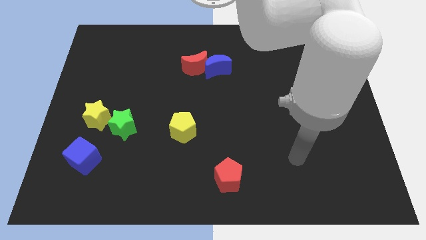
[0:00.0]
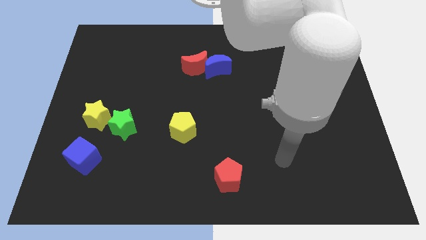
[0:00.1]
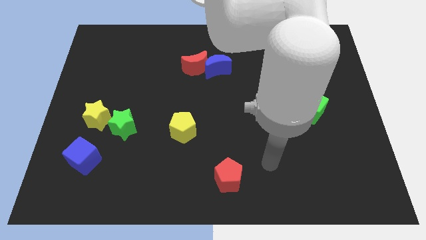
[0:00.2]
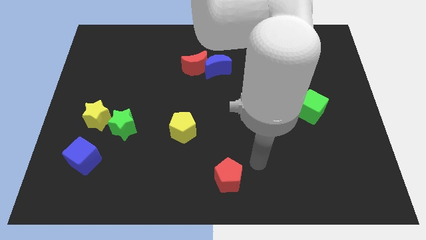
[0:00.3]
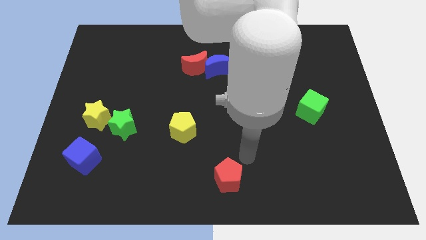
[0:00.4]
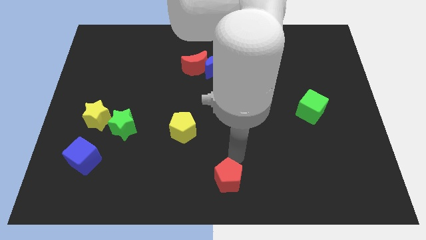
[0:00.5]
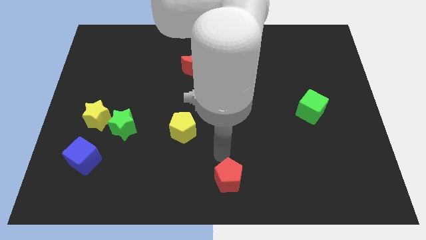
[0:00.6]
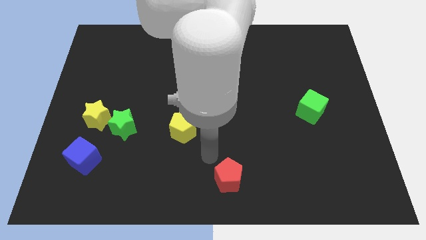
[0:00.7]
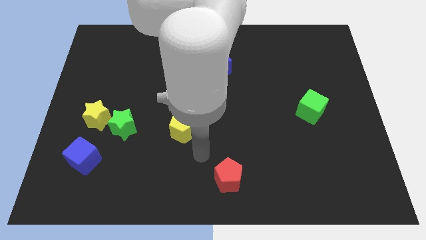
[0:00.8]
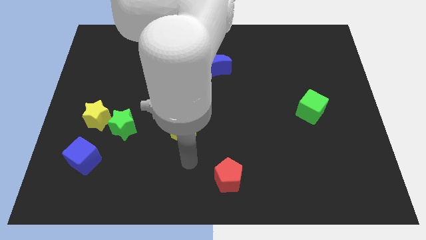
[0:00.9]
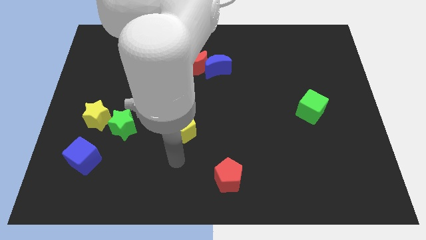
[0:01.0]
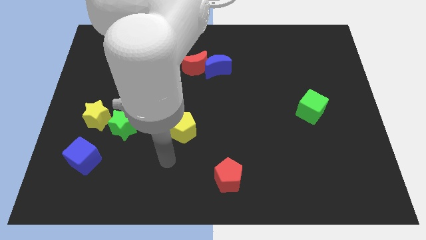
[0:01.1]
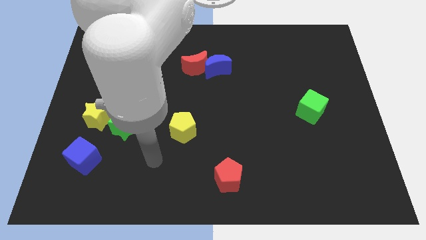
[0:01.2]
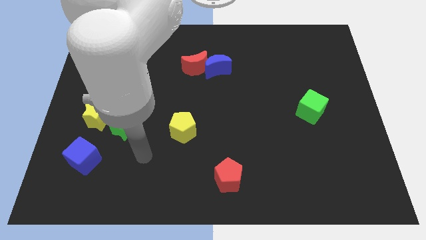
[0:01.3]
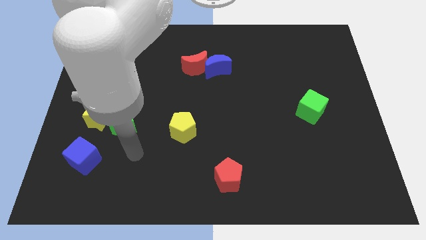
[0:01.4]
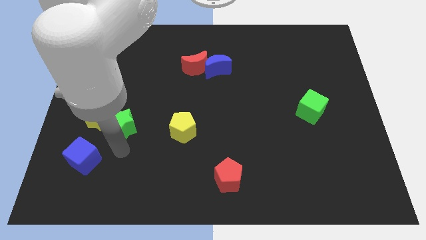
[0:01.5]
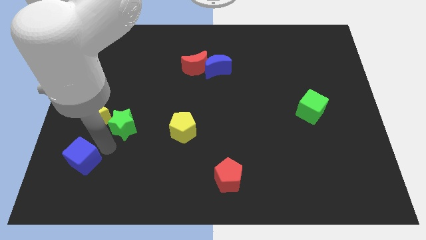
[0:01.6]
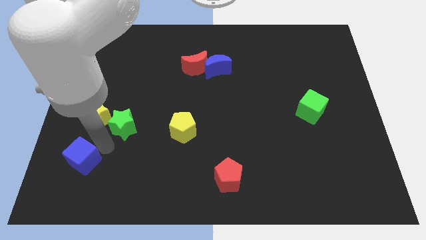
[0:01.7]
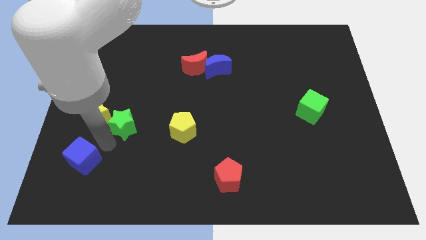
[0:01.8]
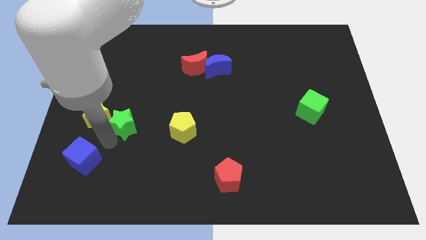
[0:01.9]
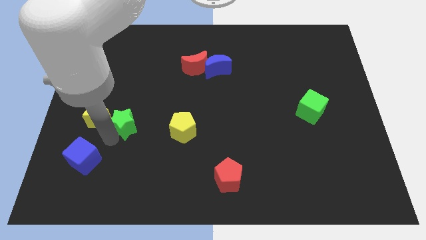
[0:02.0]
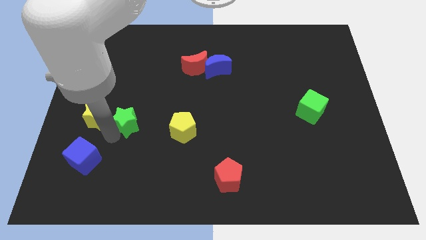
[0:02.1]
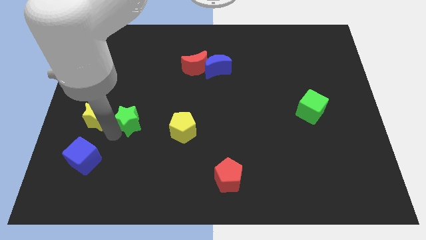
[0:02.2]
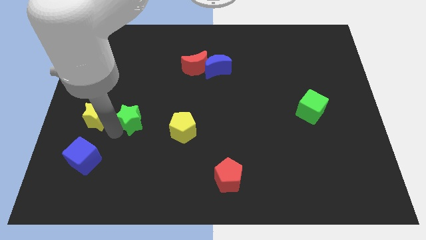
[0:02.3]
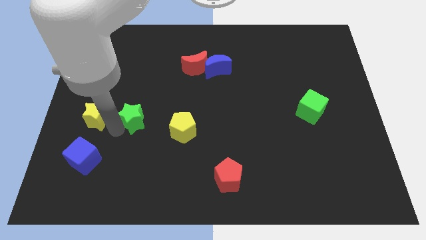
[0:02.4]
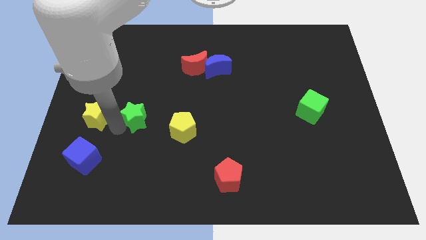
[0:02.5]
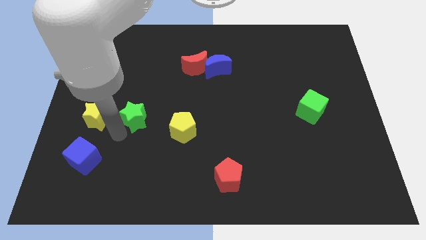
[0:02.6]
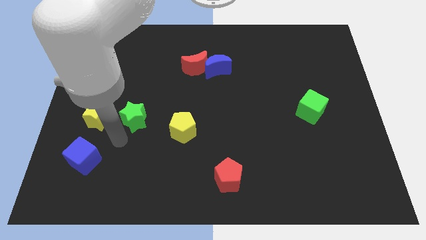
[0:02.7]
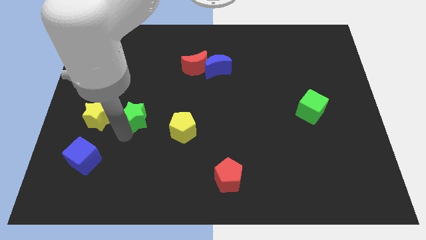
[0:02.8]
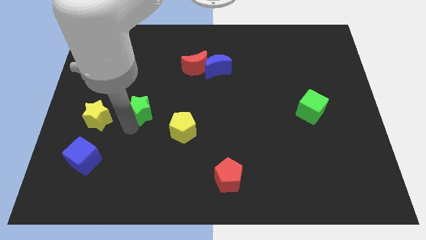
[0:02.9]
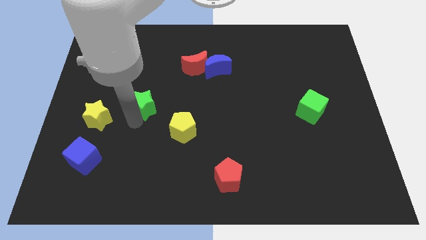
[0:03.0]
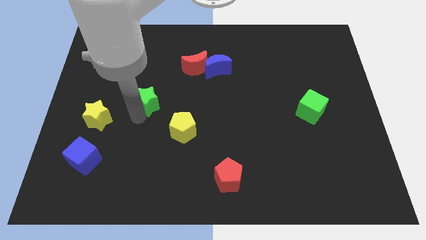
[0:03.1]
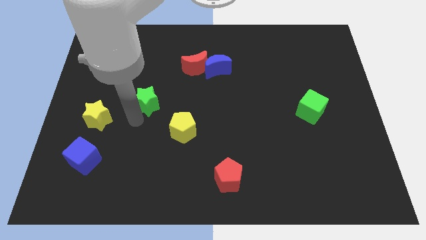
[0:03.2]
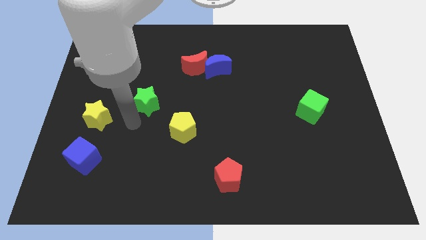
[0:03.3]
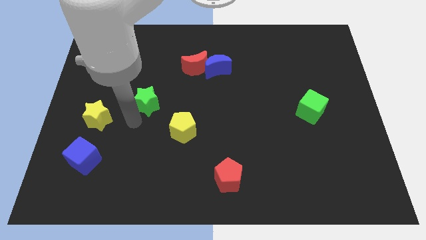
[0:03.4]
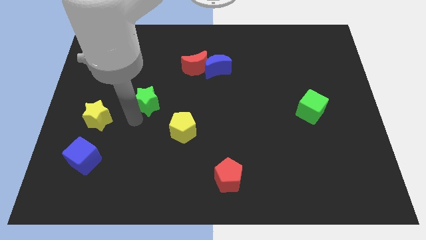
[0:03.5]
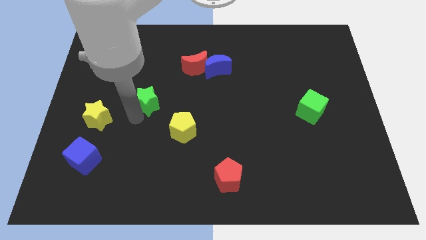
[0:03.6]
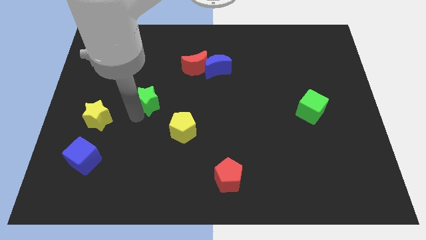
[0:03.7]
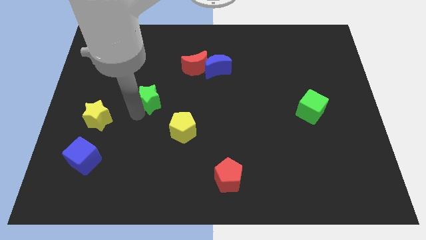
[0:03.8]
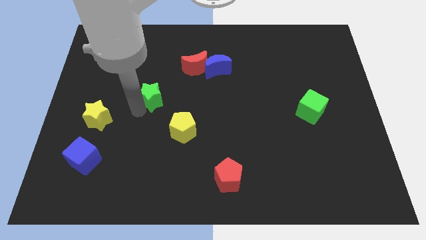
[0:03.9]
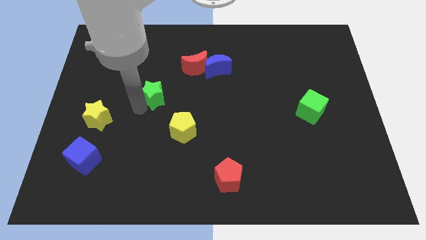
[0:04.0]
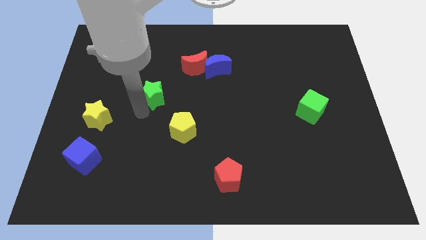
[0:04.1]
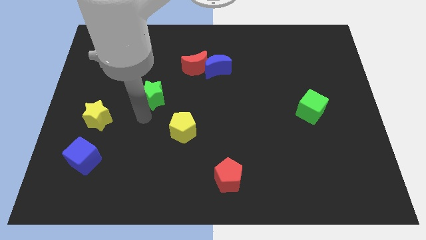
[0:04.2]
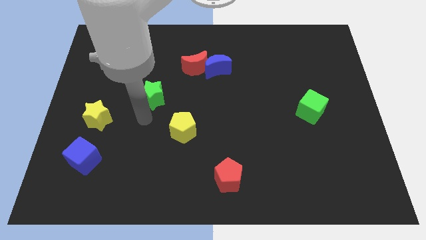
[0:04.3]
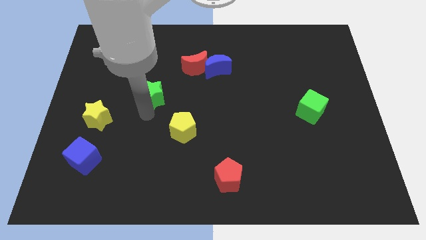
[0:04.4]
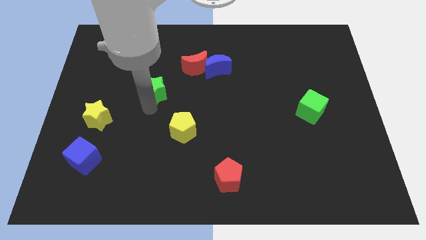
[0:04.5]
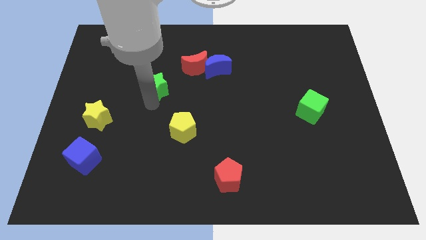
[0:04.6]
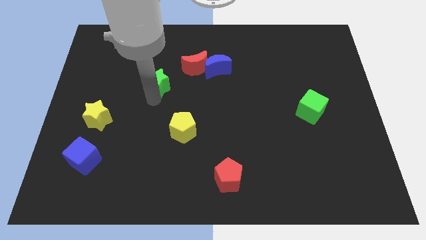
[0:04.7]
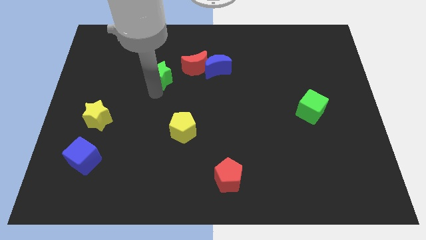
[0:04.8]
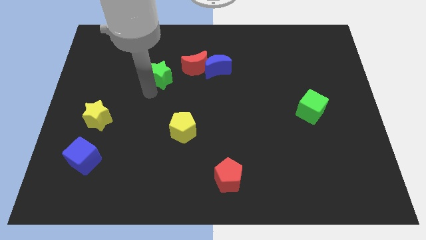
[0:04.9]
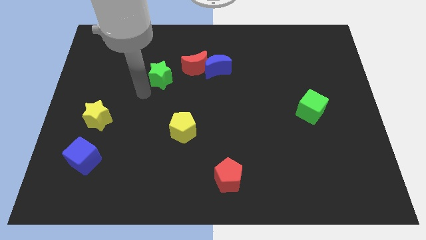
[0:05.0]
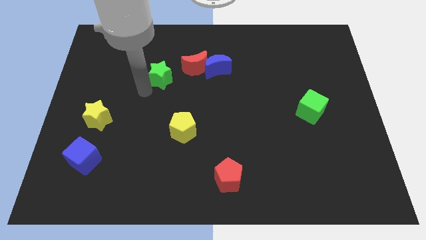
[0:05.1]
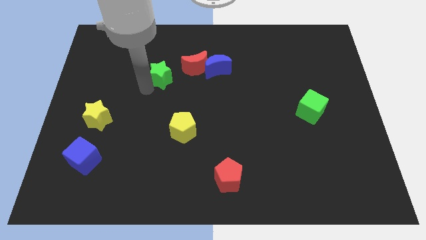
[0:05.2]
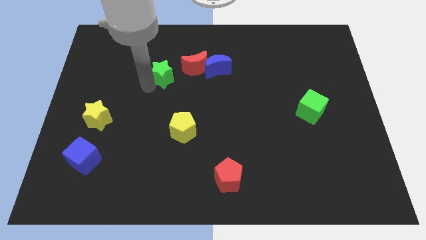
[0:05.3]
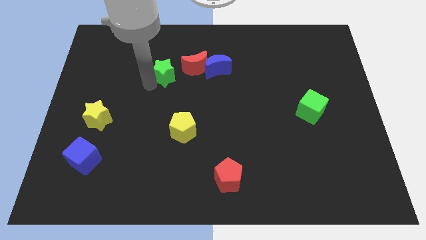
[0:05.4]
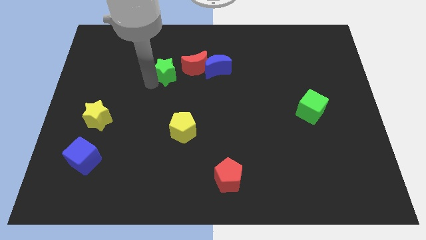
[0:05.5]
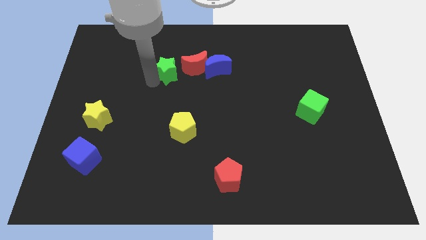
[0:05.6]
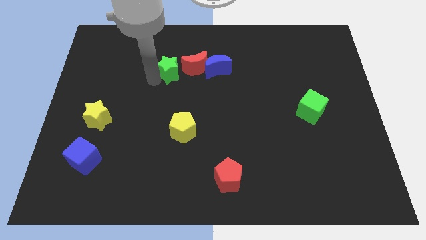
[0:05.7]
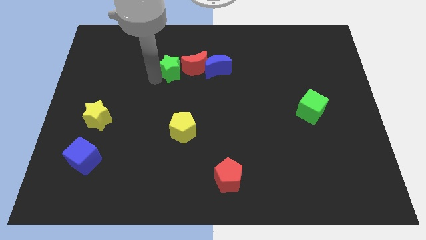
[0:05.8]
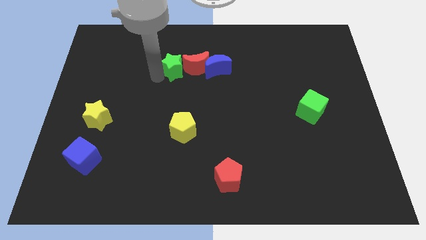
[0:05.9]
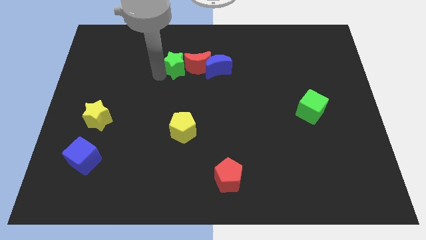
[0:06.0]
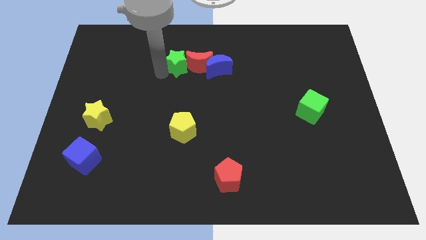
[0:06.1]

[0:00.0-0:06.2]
push the green star up and to the right

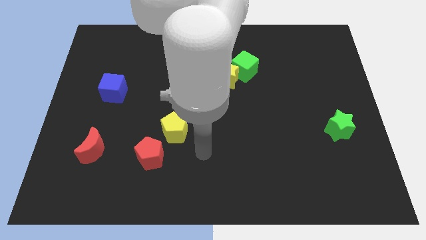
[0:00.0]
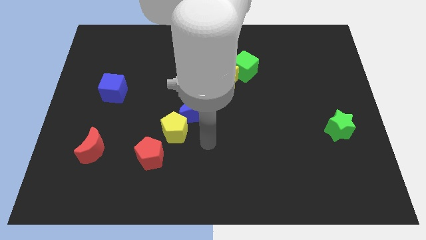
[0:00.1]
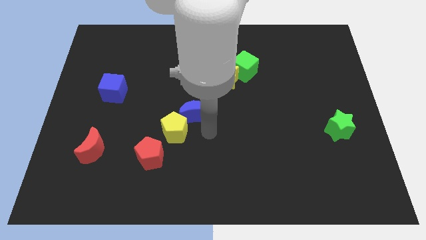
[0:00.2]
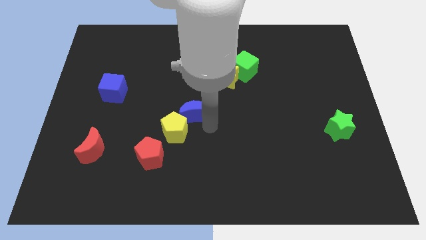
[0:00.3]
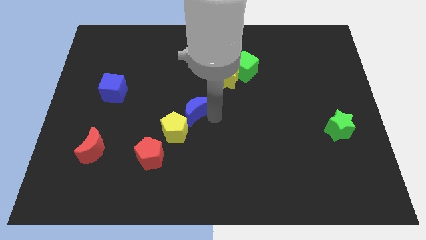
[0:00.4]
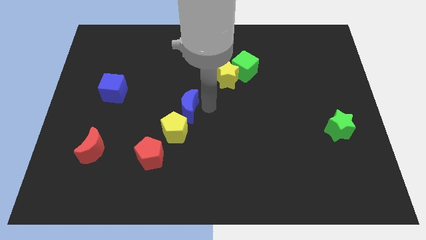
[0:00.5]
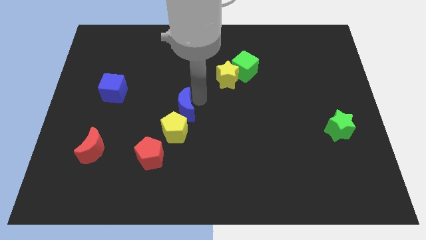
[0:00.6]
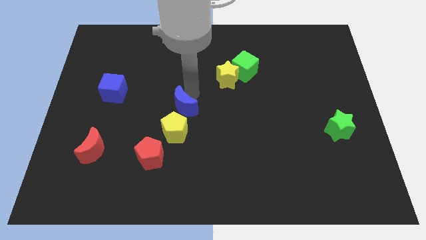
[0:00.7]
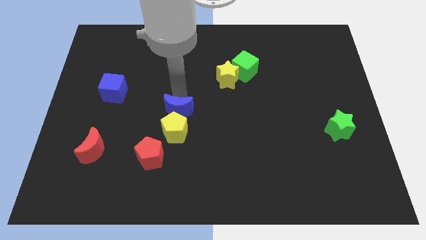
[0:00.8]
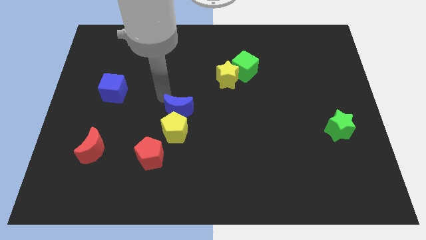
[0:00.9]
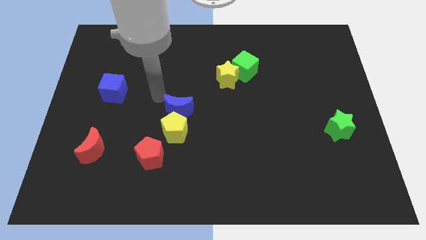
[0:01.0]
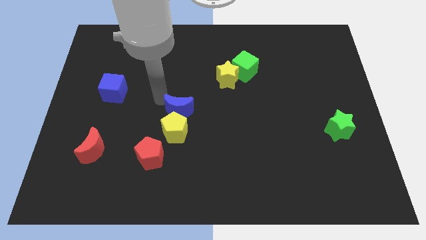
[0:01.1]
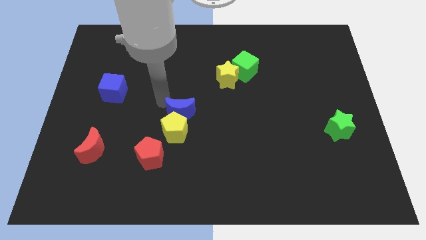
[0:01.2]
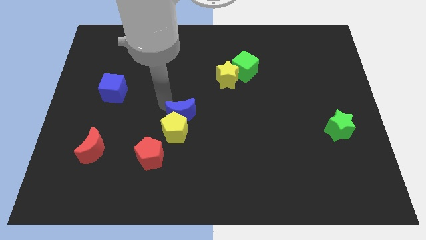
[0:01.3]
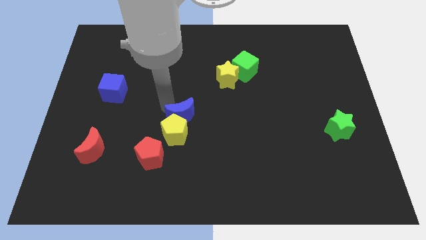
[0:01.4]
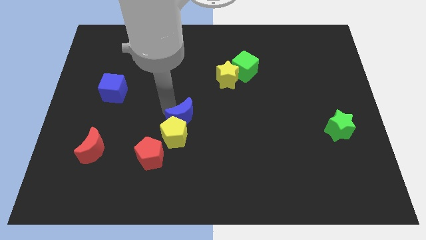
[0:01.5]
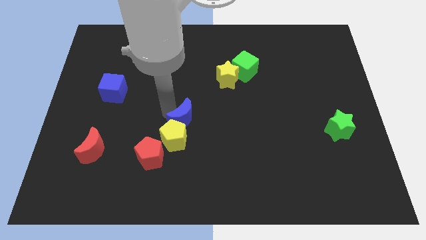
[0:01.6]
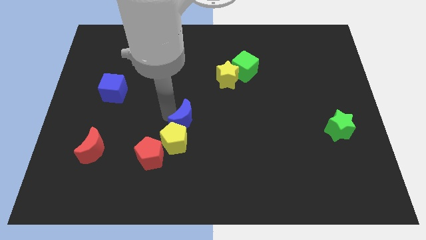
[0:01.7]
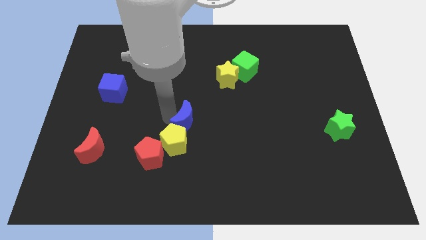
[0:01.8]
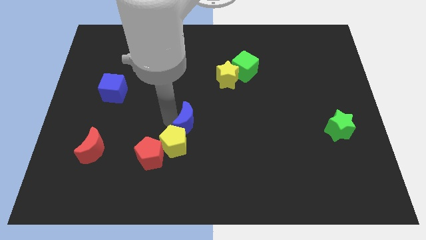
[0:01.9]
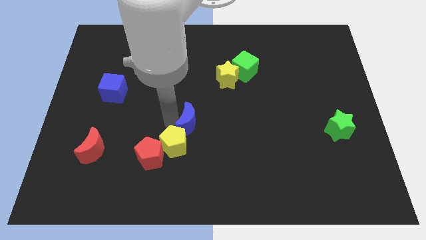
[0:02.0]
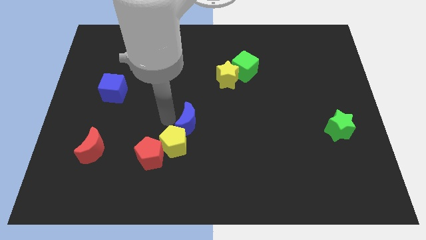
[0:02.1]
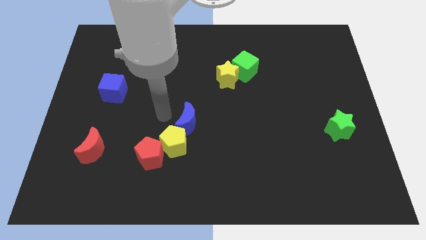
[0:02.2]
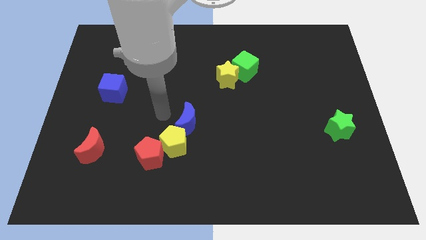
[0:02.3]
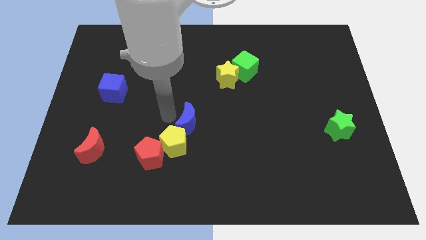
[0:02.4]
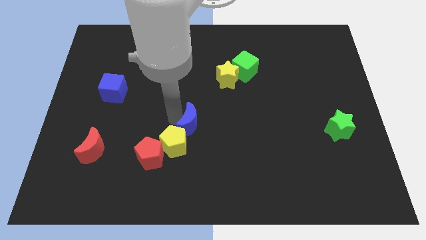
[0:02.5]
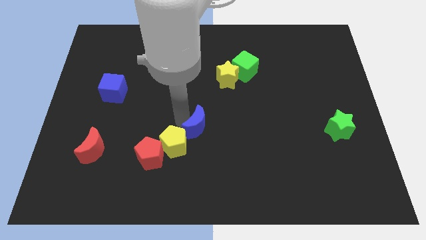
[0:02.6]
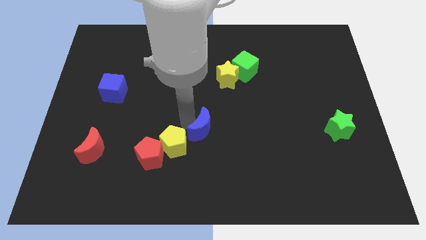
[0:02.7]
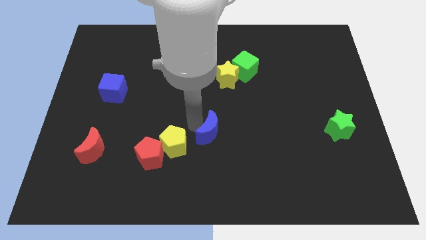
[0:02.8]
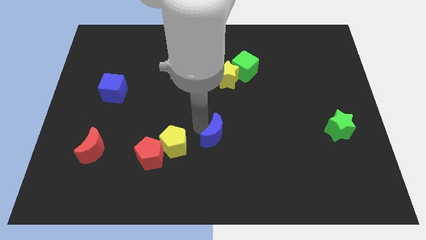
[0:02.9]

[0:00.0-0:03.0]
slightly move the blue moon down and then to the right
